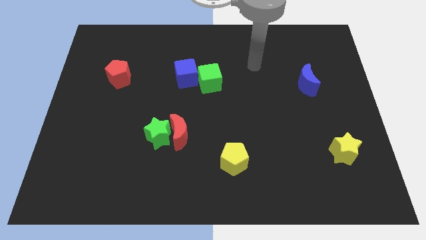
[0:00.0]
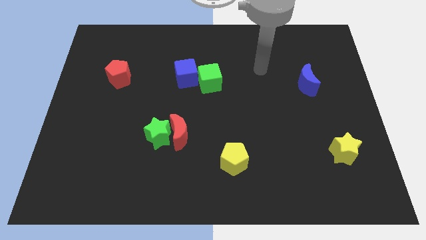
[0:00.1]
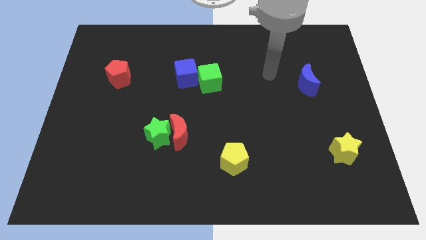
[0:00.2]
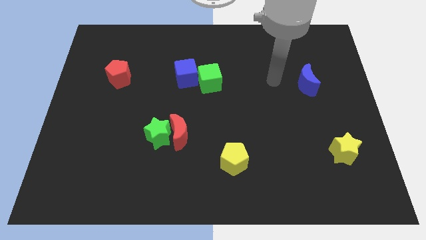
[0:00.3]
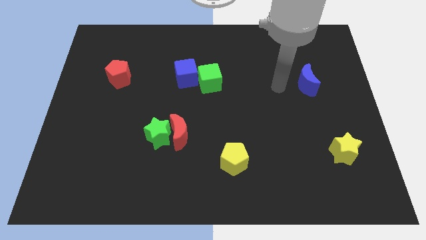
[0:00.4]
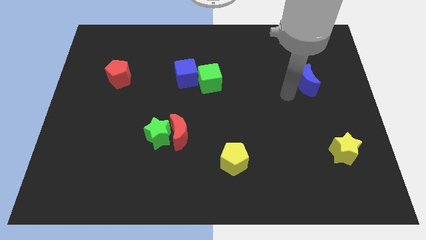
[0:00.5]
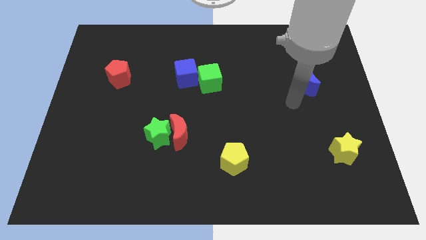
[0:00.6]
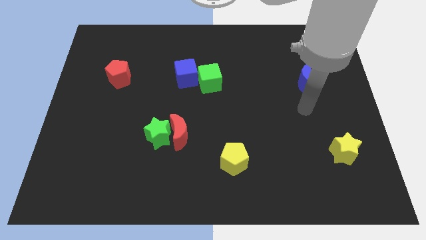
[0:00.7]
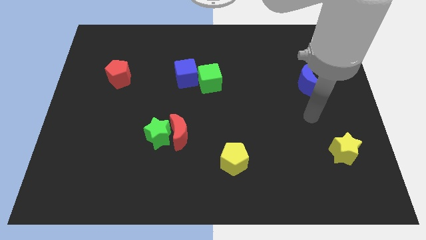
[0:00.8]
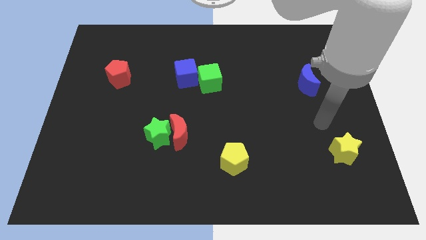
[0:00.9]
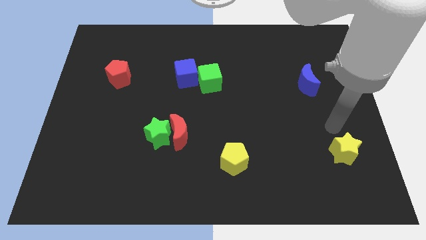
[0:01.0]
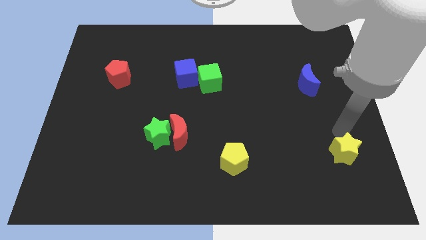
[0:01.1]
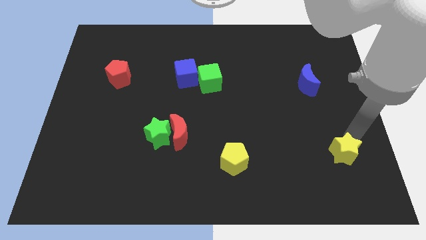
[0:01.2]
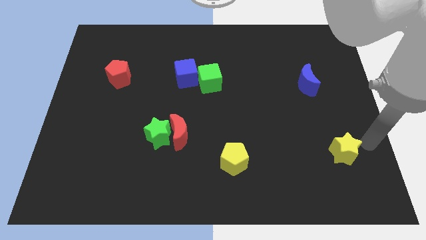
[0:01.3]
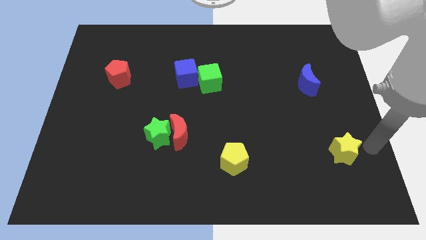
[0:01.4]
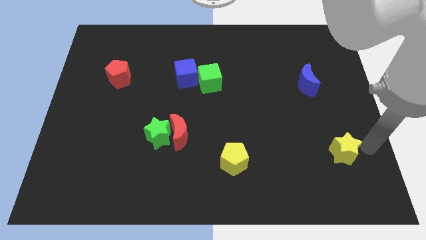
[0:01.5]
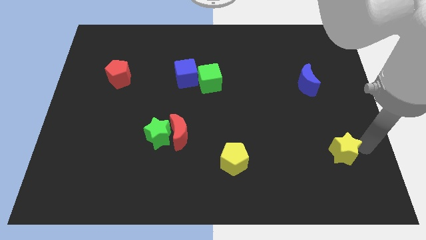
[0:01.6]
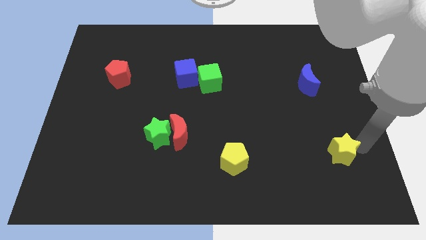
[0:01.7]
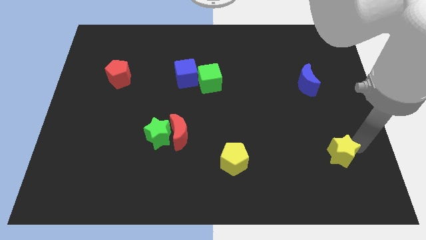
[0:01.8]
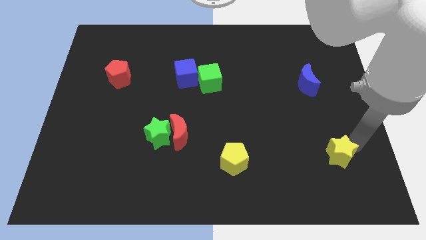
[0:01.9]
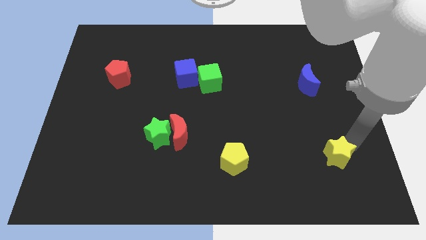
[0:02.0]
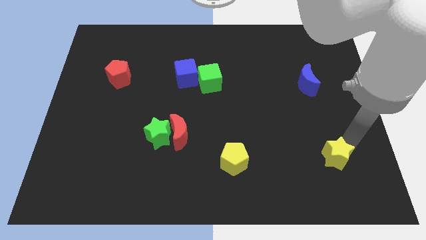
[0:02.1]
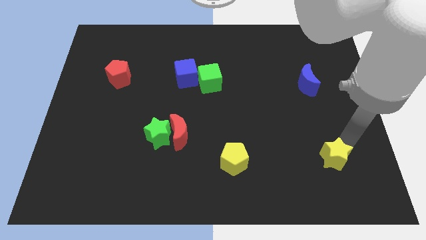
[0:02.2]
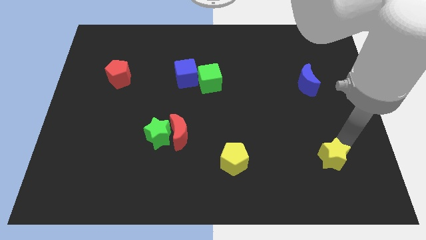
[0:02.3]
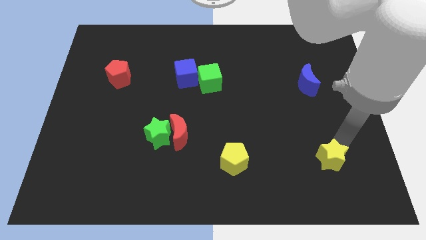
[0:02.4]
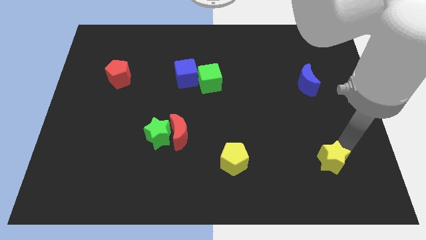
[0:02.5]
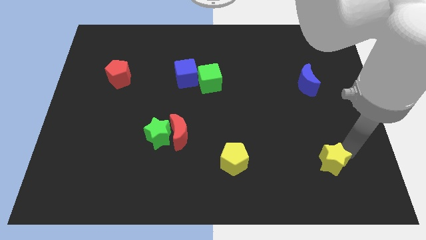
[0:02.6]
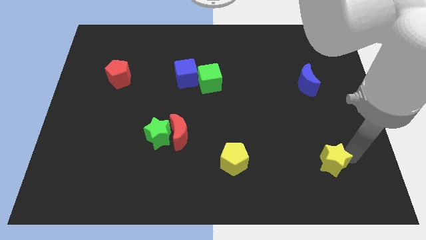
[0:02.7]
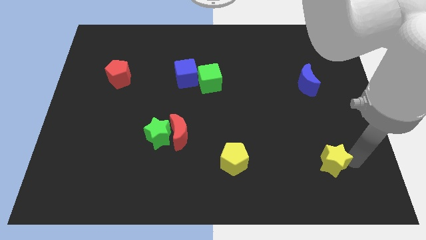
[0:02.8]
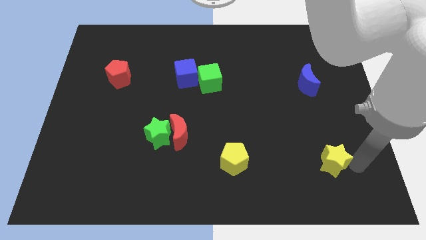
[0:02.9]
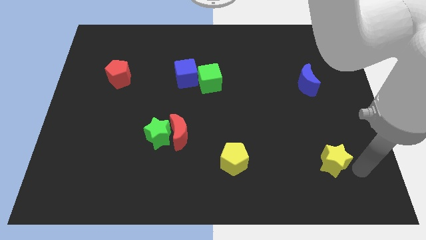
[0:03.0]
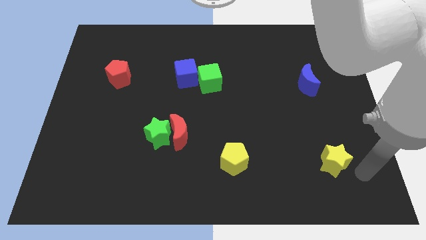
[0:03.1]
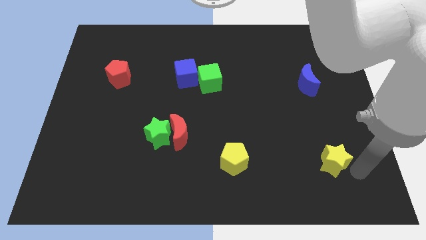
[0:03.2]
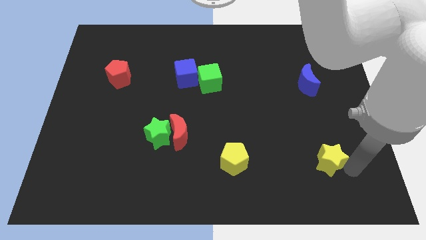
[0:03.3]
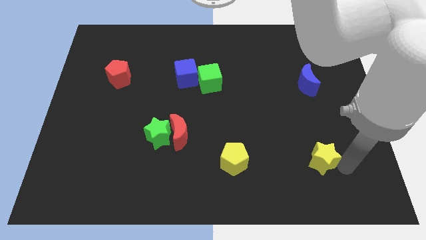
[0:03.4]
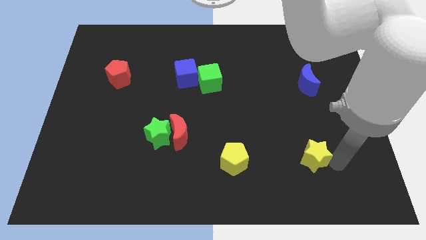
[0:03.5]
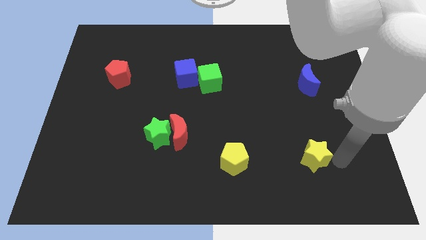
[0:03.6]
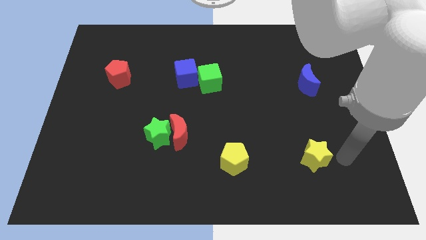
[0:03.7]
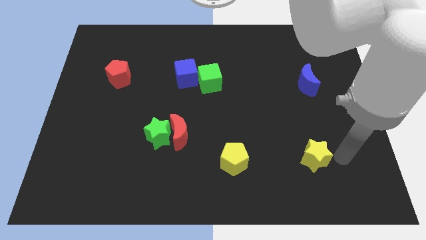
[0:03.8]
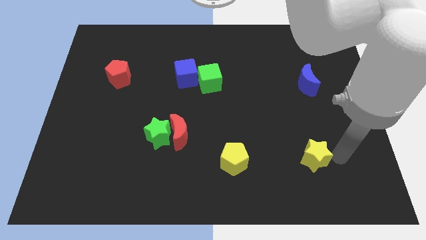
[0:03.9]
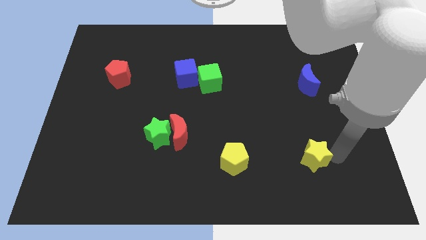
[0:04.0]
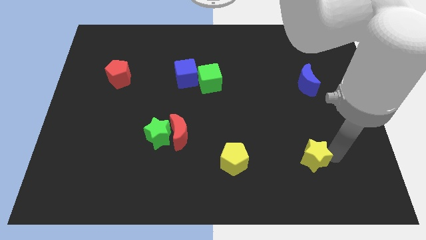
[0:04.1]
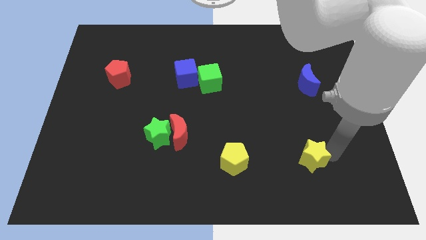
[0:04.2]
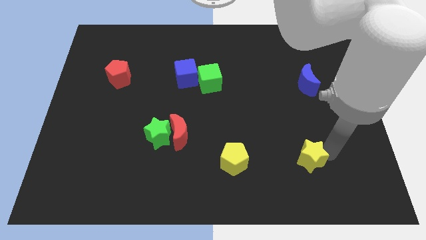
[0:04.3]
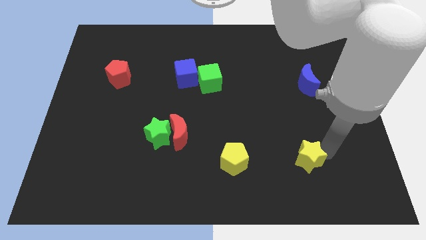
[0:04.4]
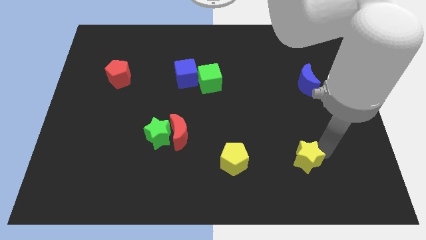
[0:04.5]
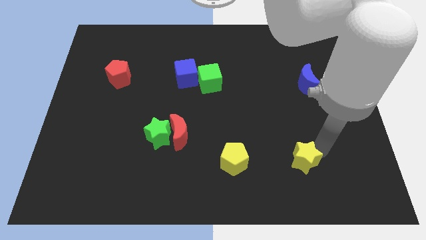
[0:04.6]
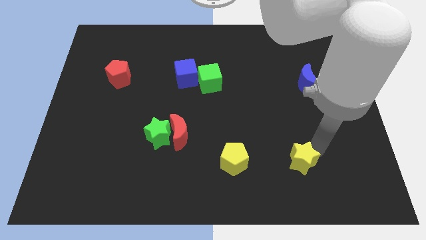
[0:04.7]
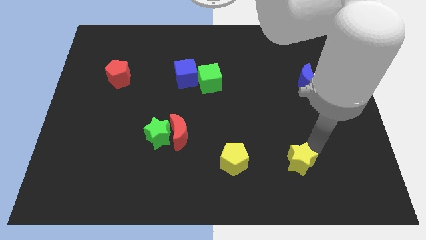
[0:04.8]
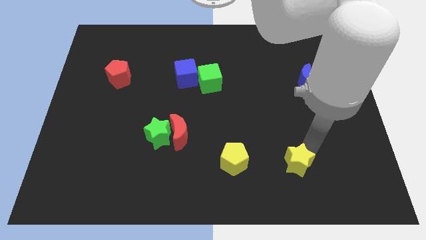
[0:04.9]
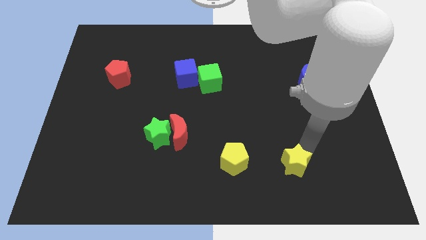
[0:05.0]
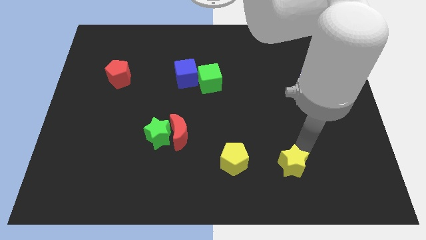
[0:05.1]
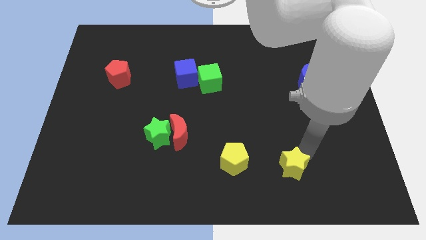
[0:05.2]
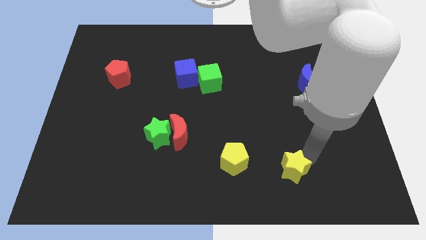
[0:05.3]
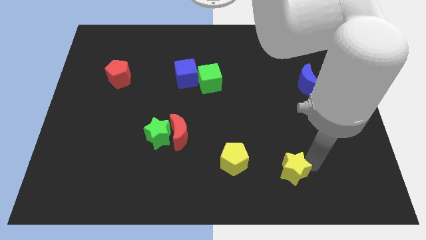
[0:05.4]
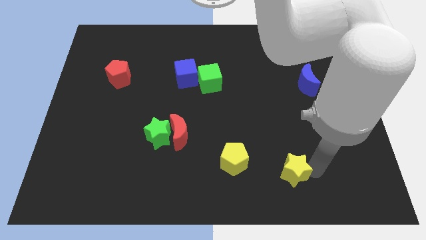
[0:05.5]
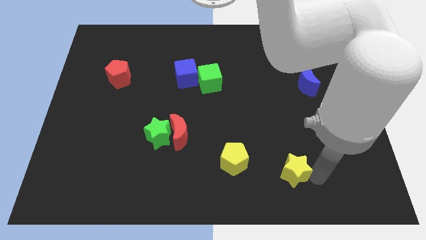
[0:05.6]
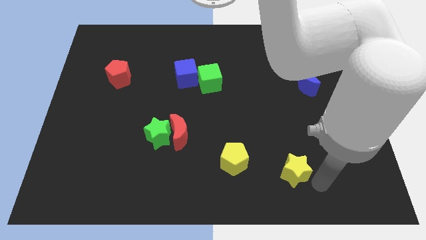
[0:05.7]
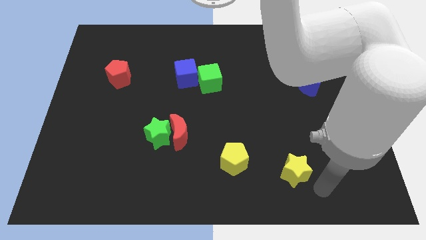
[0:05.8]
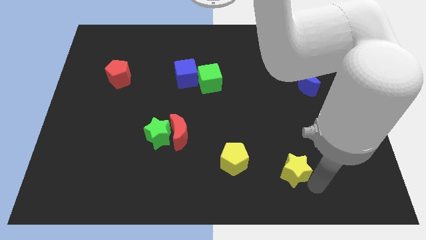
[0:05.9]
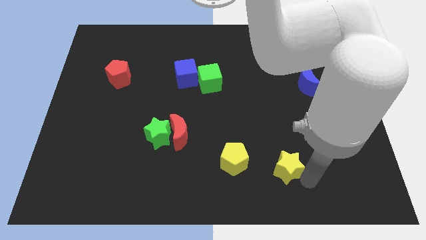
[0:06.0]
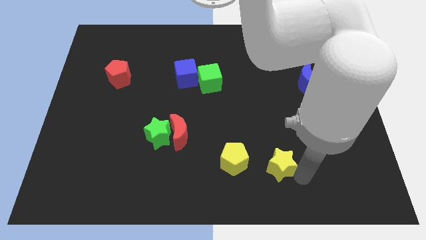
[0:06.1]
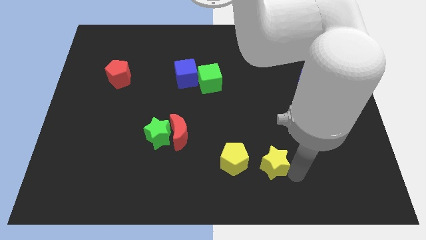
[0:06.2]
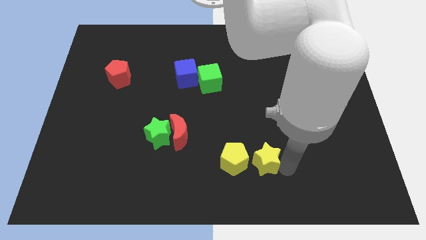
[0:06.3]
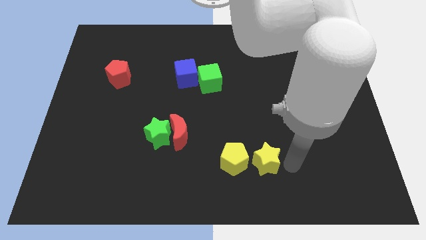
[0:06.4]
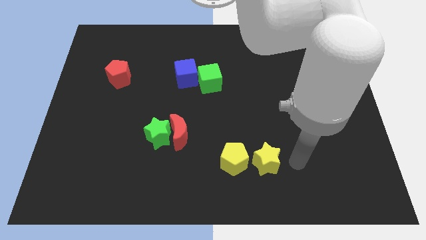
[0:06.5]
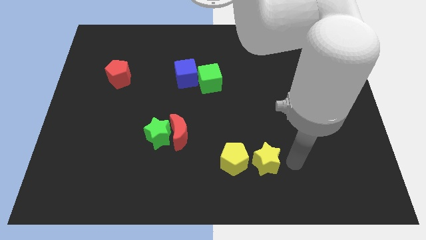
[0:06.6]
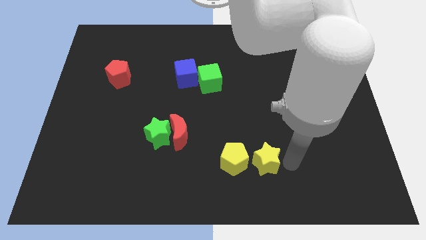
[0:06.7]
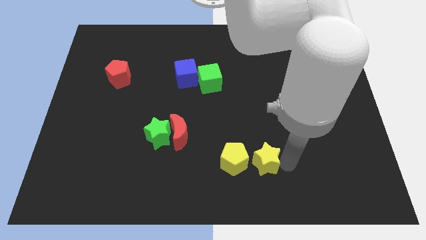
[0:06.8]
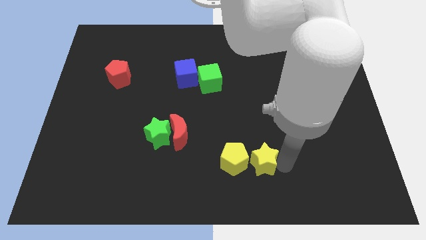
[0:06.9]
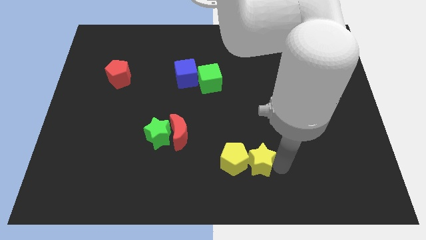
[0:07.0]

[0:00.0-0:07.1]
move the yellow star to the yellow pentagon
